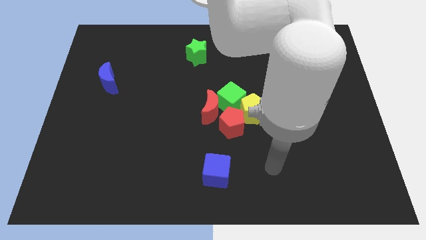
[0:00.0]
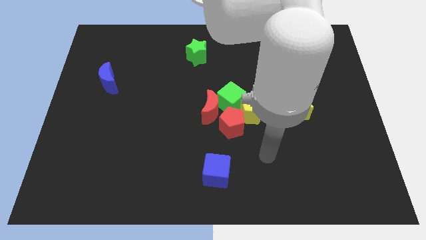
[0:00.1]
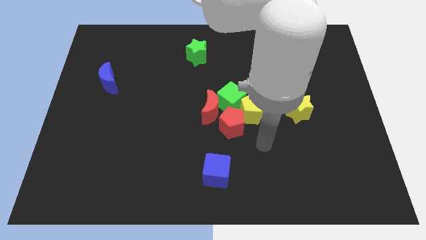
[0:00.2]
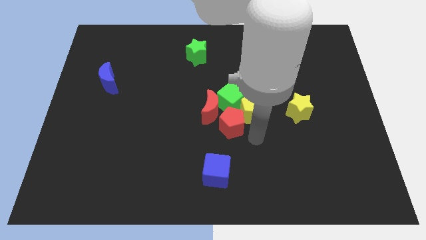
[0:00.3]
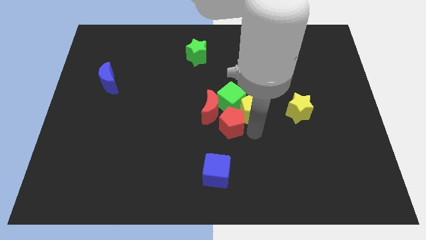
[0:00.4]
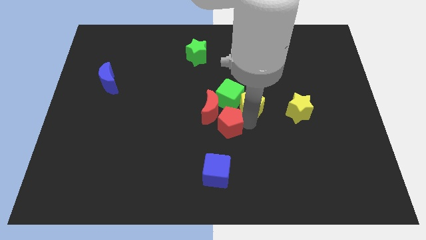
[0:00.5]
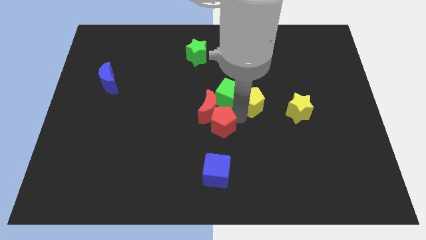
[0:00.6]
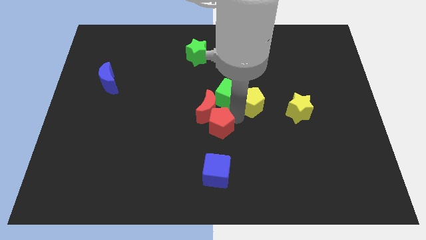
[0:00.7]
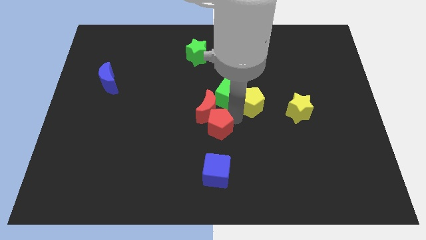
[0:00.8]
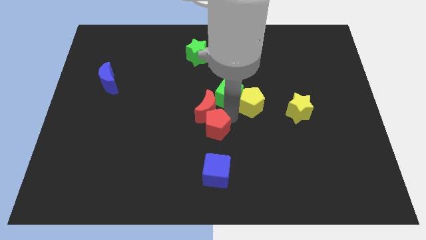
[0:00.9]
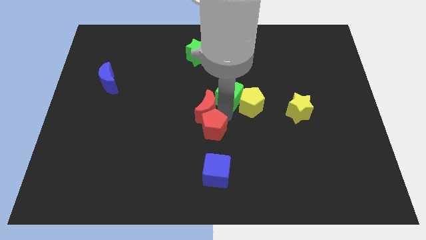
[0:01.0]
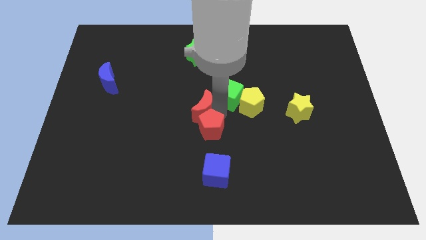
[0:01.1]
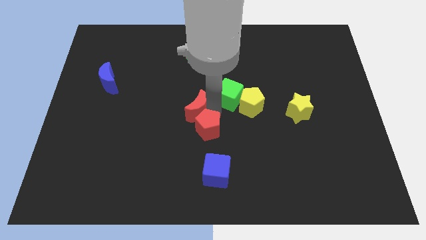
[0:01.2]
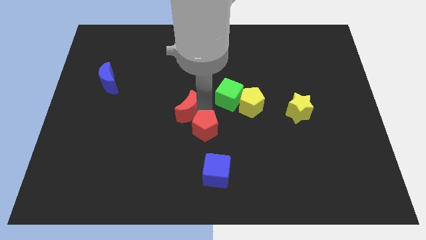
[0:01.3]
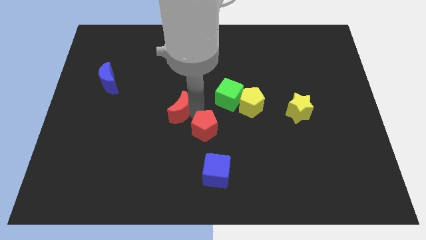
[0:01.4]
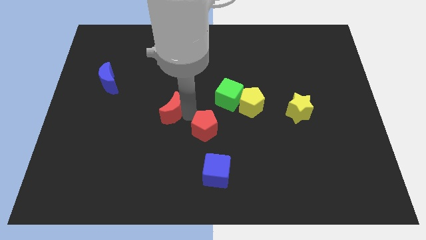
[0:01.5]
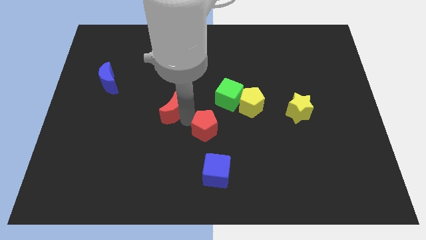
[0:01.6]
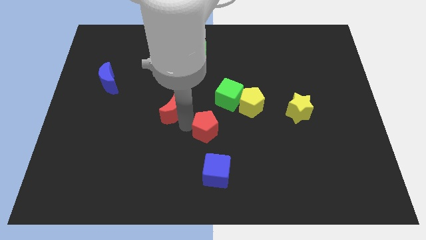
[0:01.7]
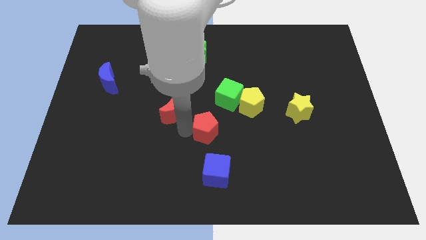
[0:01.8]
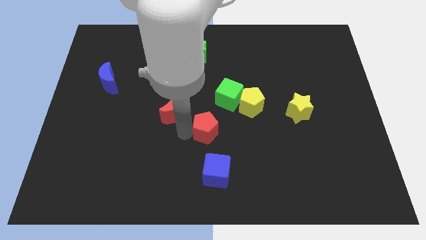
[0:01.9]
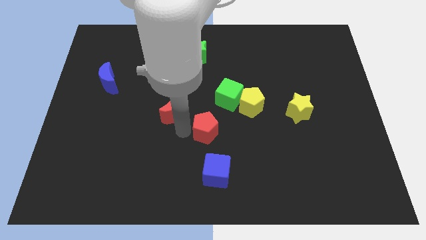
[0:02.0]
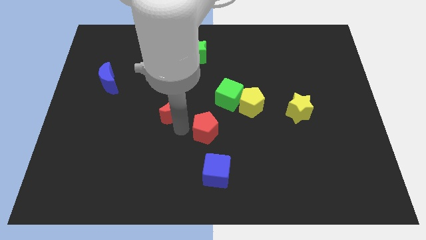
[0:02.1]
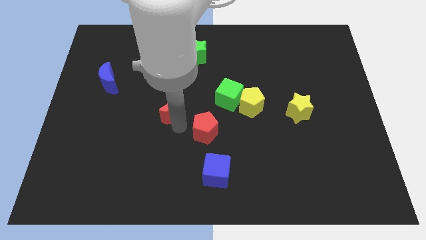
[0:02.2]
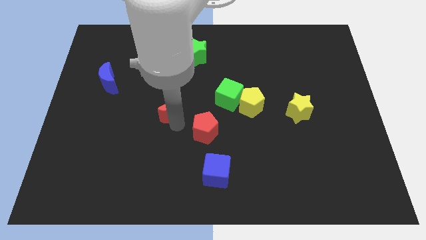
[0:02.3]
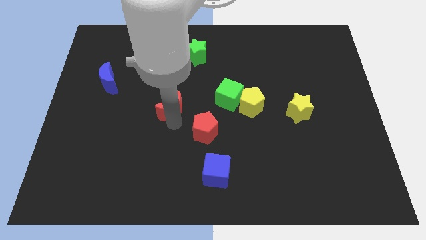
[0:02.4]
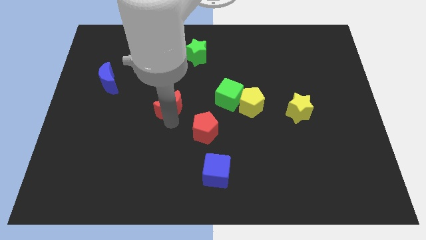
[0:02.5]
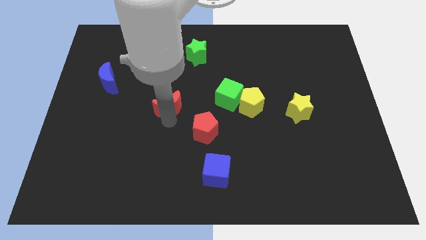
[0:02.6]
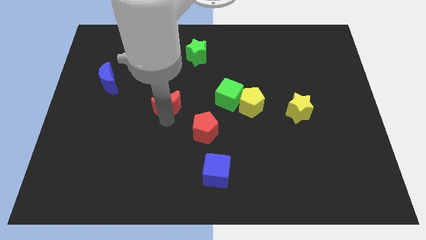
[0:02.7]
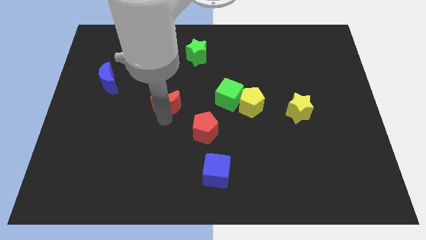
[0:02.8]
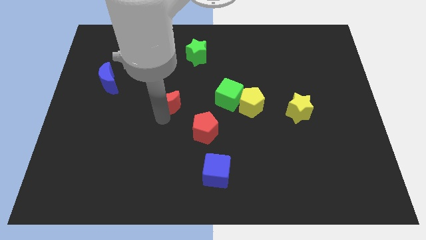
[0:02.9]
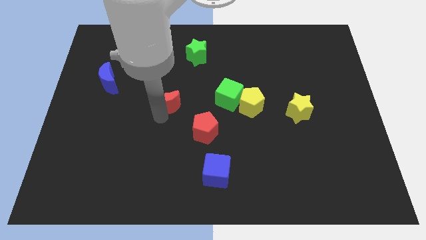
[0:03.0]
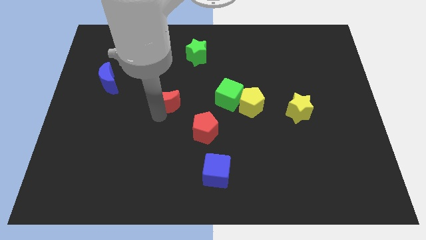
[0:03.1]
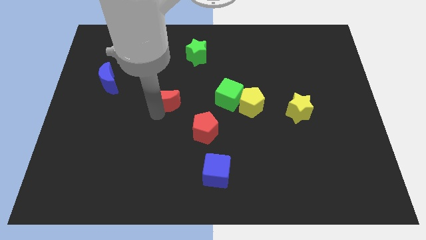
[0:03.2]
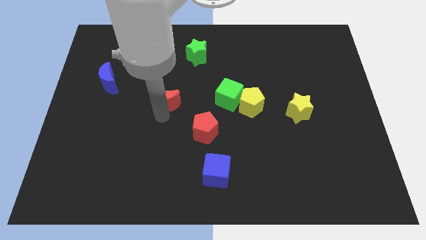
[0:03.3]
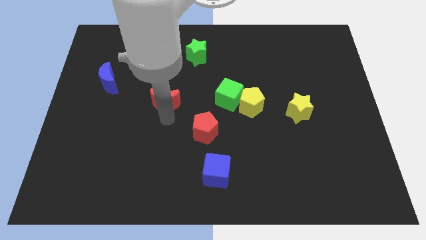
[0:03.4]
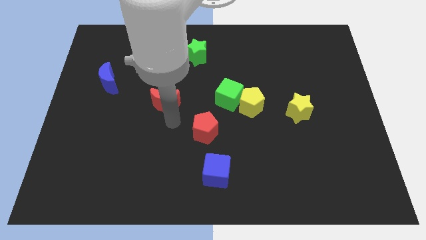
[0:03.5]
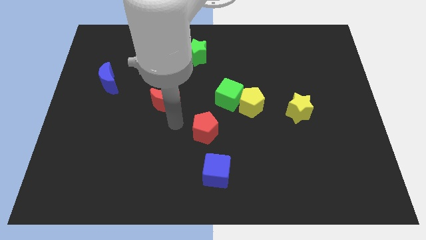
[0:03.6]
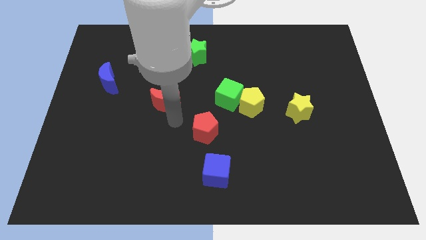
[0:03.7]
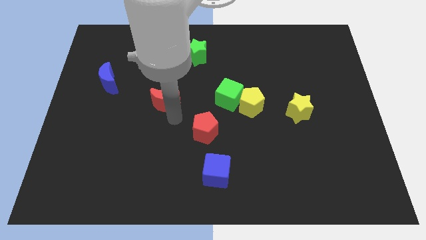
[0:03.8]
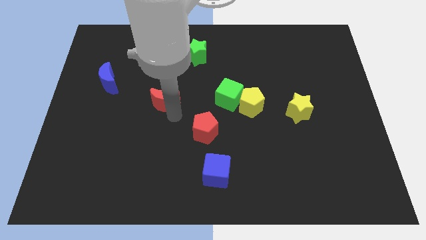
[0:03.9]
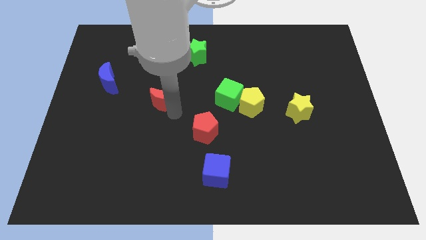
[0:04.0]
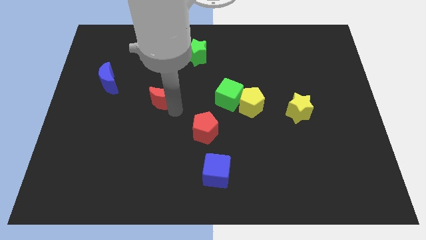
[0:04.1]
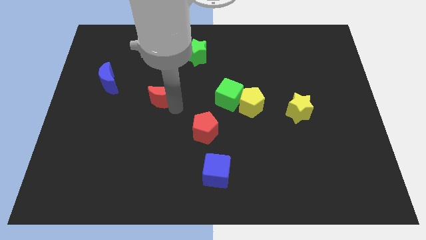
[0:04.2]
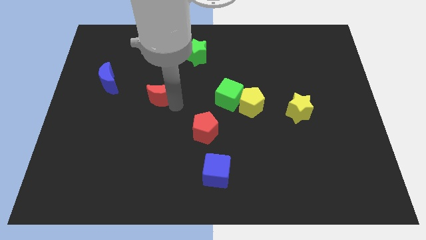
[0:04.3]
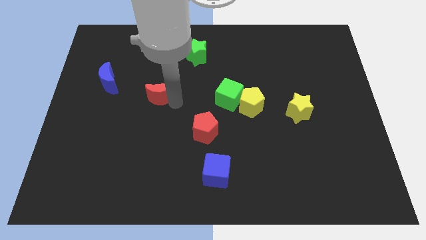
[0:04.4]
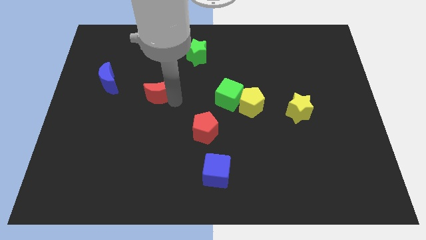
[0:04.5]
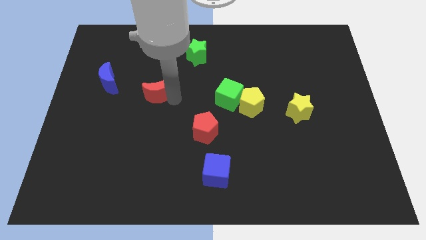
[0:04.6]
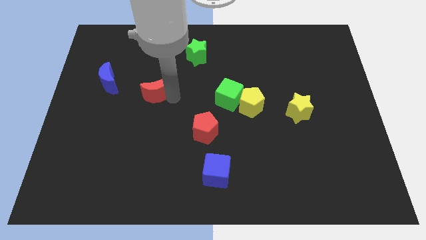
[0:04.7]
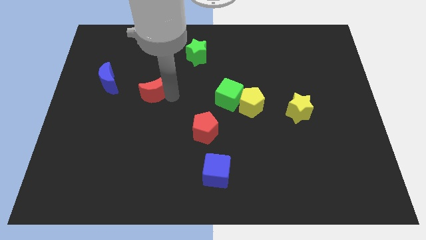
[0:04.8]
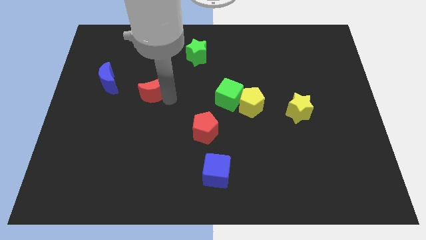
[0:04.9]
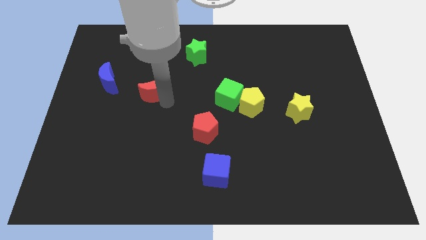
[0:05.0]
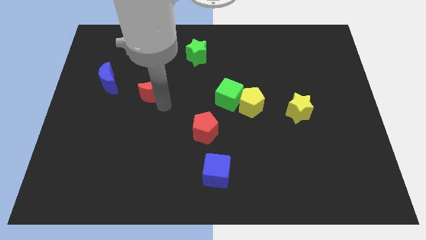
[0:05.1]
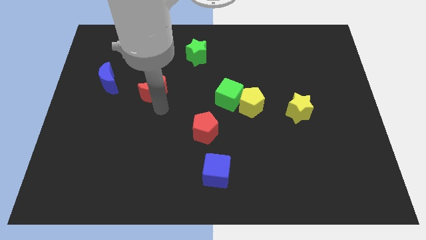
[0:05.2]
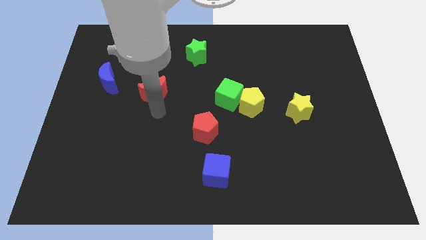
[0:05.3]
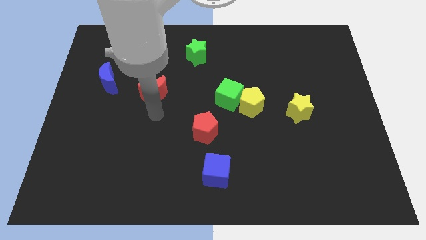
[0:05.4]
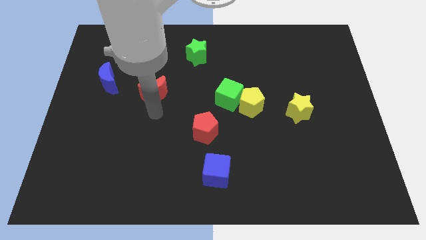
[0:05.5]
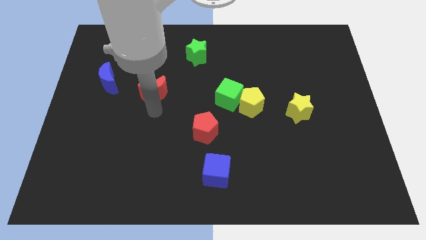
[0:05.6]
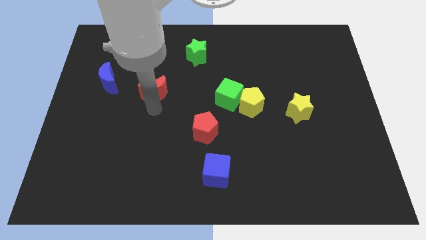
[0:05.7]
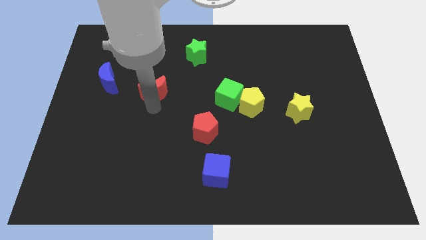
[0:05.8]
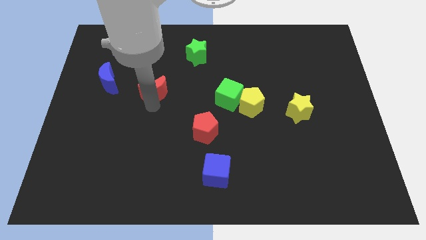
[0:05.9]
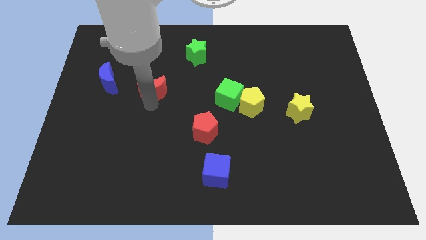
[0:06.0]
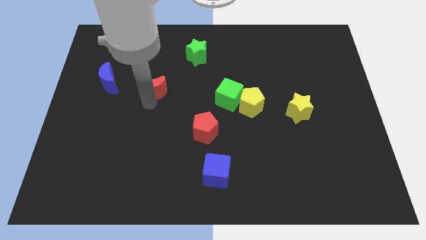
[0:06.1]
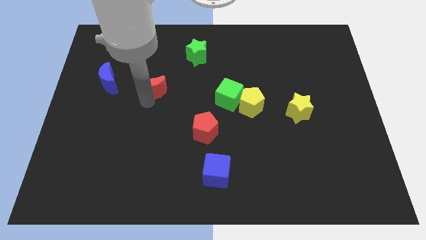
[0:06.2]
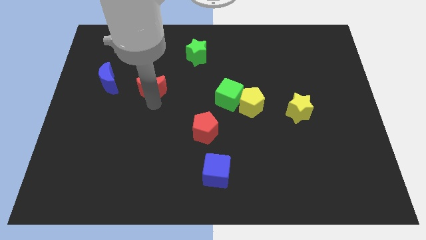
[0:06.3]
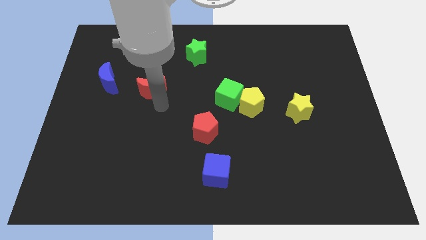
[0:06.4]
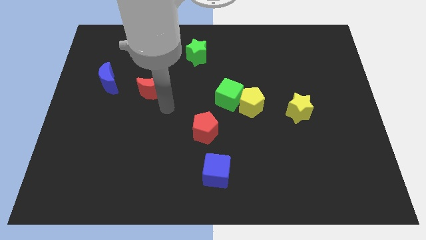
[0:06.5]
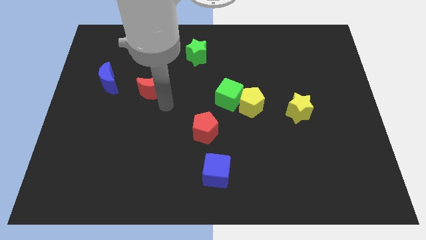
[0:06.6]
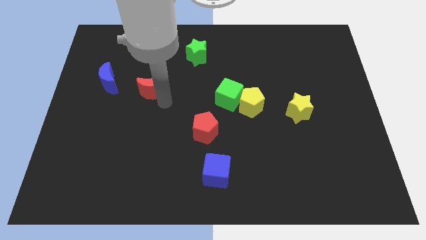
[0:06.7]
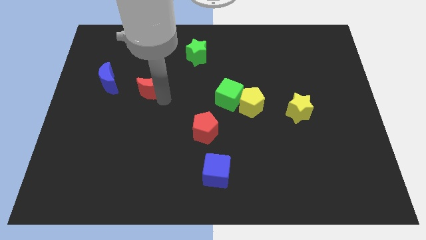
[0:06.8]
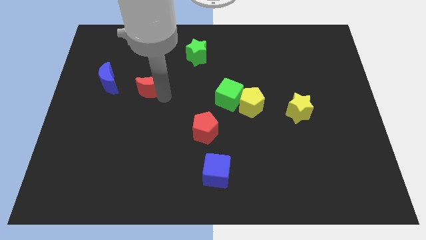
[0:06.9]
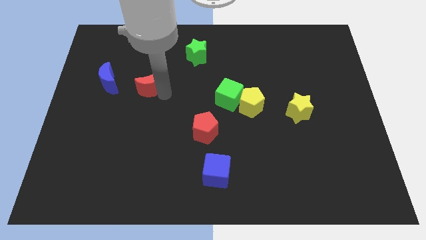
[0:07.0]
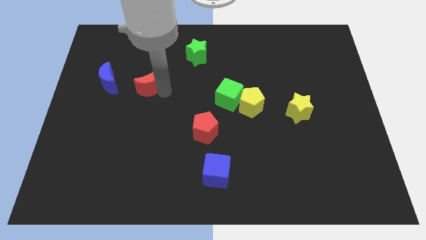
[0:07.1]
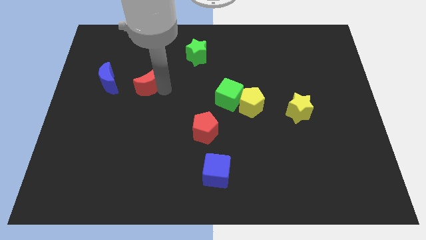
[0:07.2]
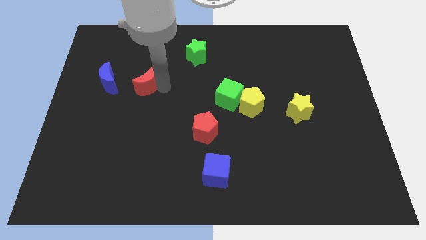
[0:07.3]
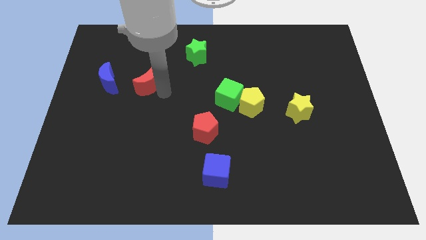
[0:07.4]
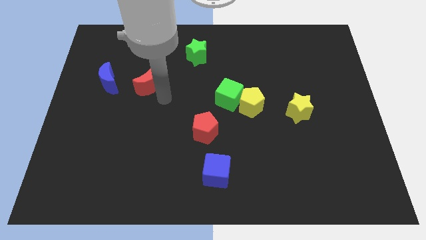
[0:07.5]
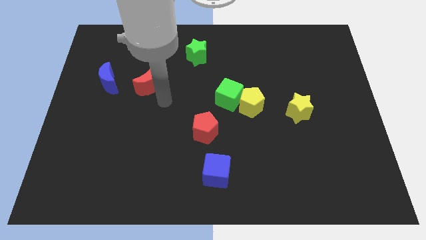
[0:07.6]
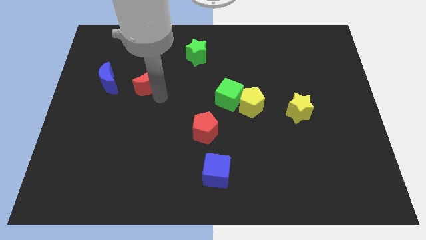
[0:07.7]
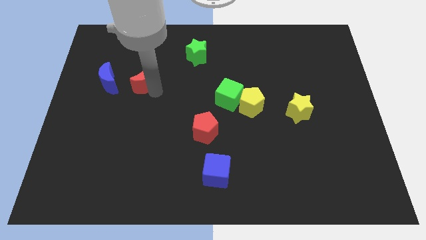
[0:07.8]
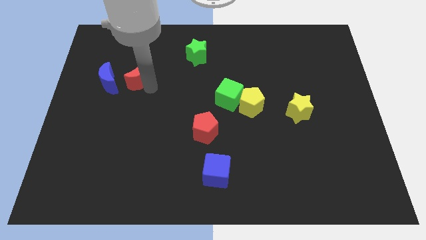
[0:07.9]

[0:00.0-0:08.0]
slide the red moon to the top right of the blue moon
